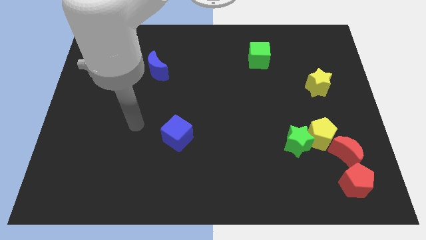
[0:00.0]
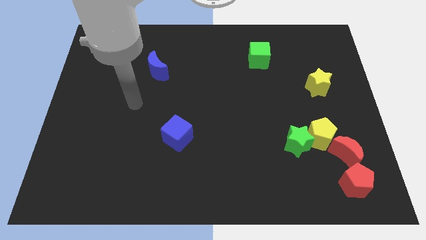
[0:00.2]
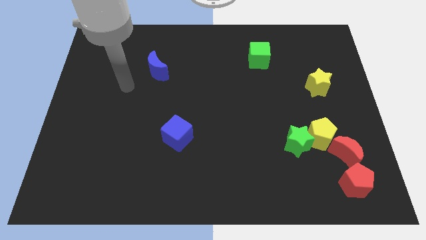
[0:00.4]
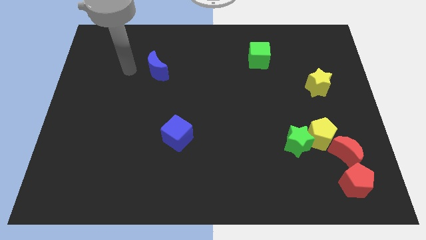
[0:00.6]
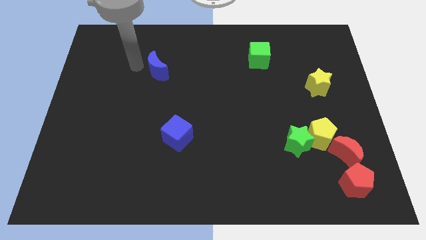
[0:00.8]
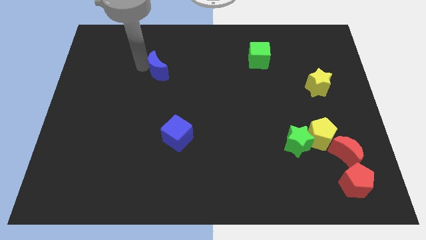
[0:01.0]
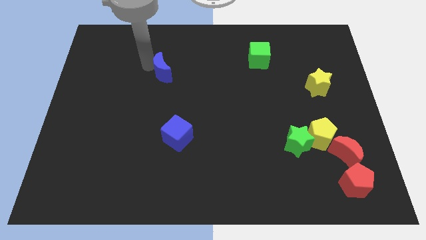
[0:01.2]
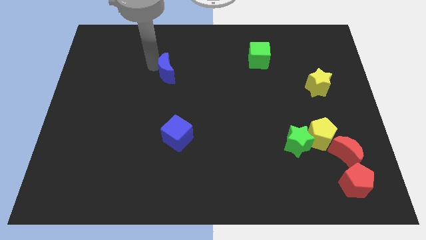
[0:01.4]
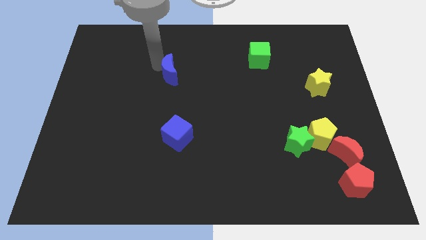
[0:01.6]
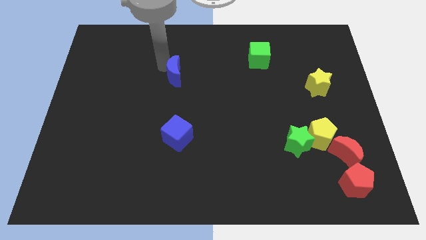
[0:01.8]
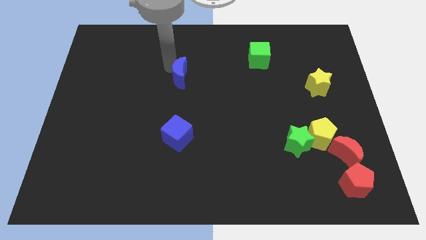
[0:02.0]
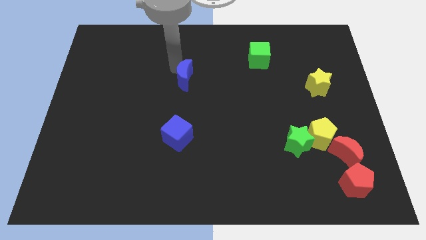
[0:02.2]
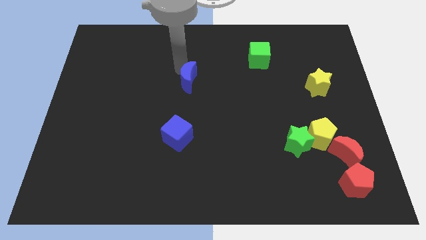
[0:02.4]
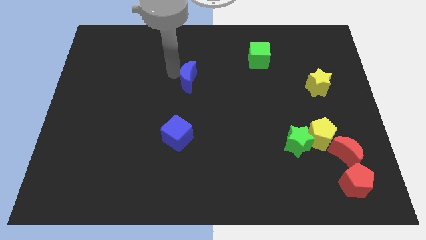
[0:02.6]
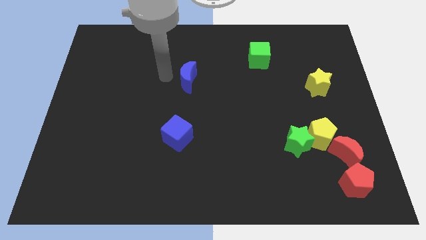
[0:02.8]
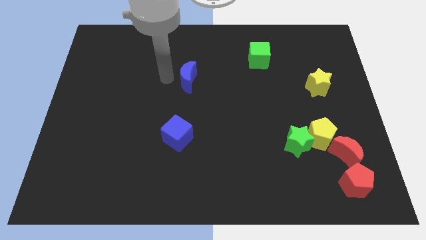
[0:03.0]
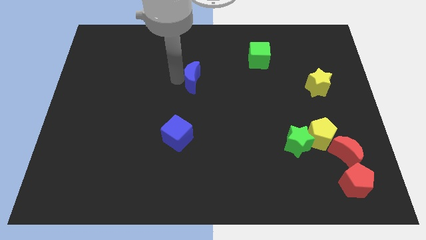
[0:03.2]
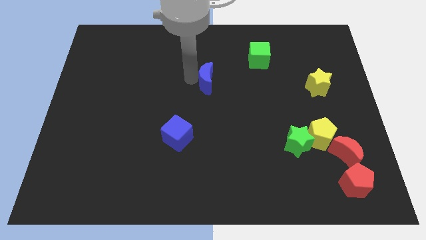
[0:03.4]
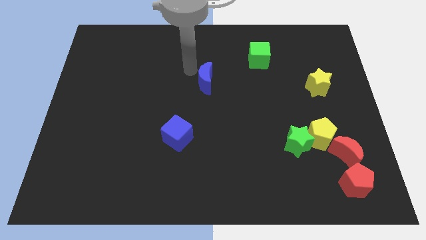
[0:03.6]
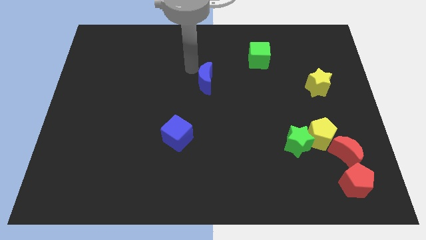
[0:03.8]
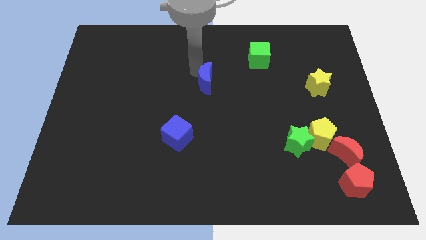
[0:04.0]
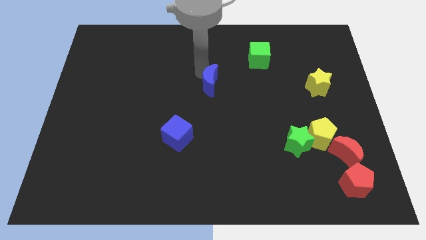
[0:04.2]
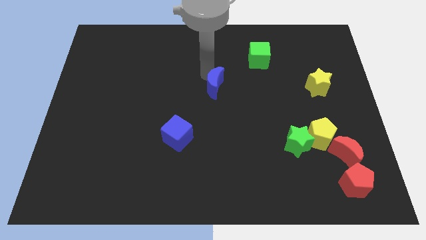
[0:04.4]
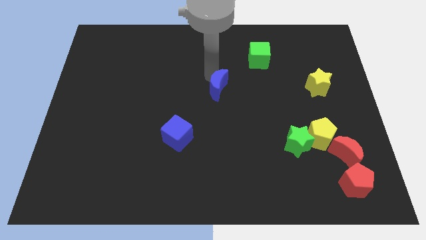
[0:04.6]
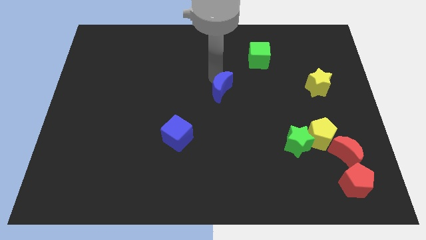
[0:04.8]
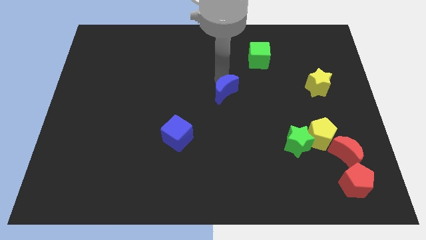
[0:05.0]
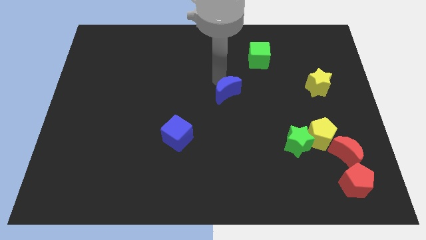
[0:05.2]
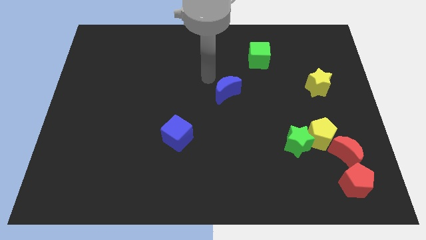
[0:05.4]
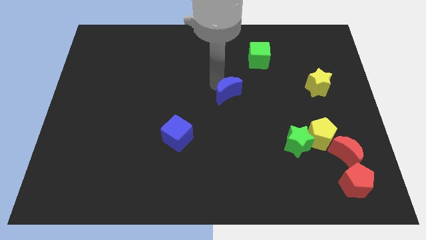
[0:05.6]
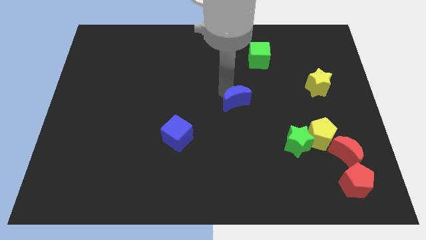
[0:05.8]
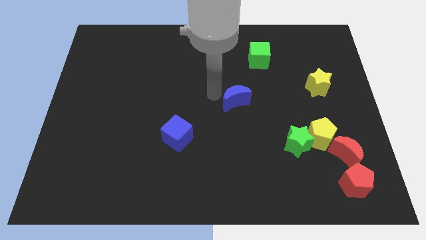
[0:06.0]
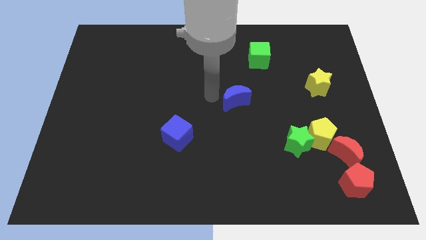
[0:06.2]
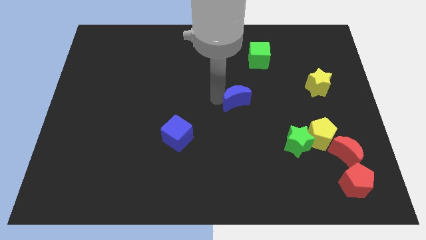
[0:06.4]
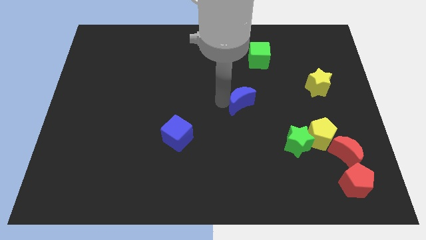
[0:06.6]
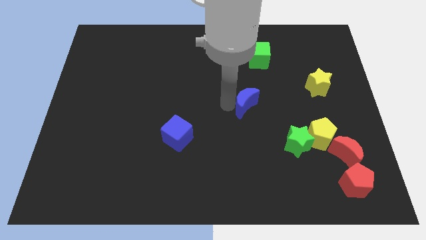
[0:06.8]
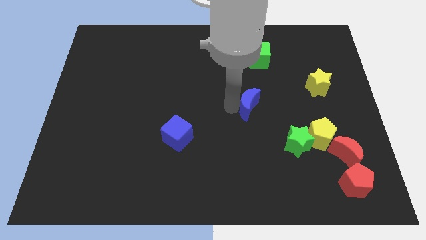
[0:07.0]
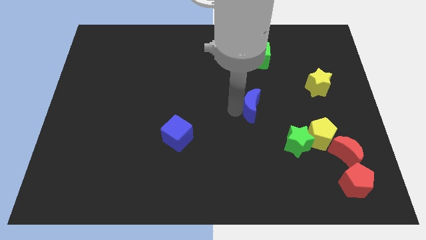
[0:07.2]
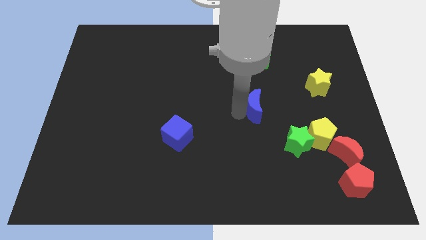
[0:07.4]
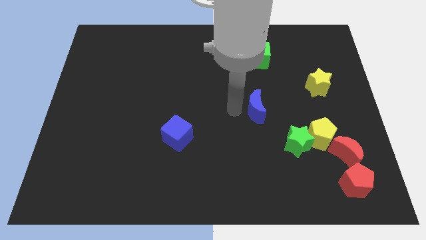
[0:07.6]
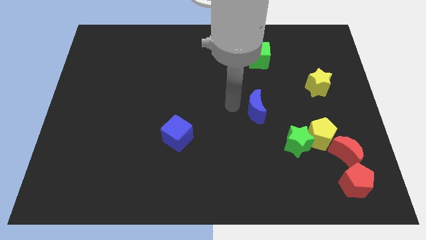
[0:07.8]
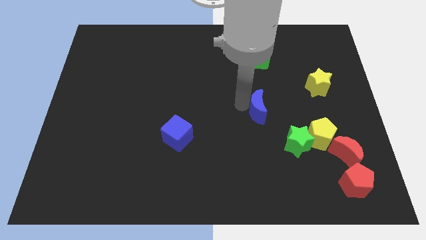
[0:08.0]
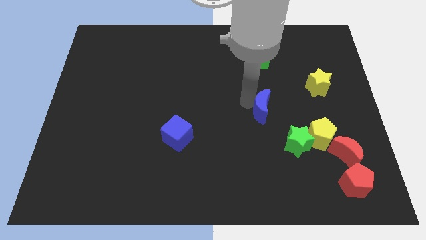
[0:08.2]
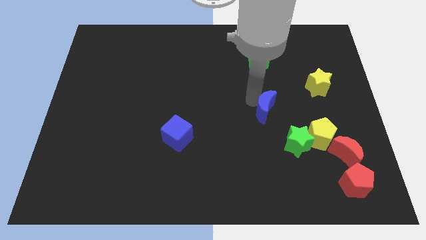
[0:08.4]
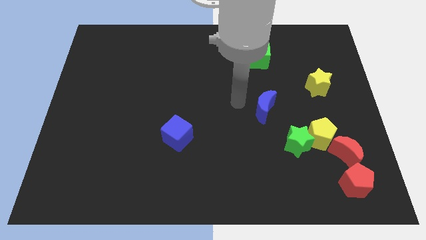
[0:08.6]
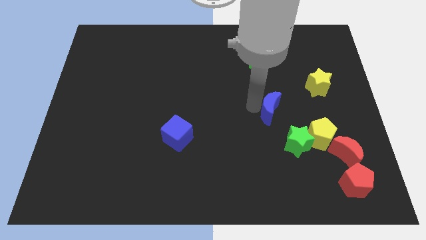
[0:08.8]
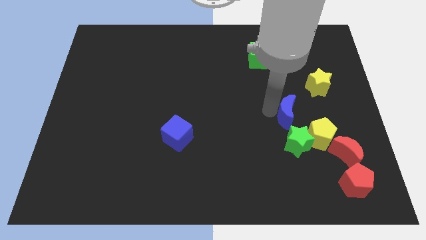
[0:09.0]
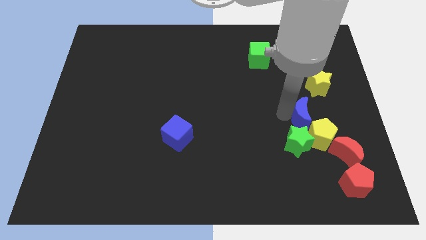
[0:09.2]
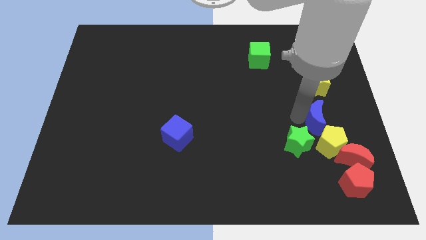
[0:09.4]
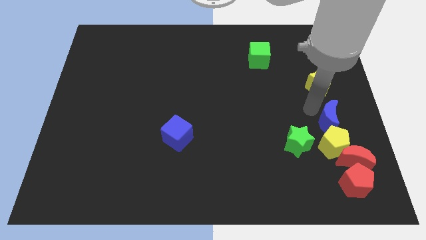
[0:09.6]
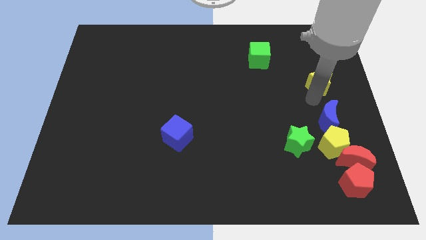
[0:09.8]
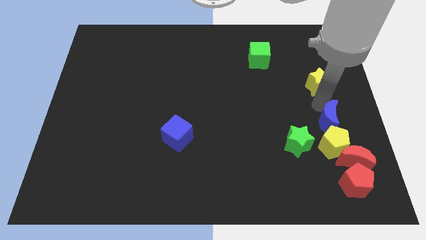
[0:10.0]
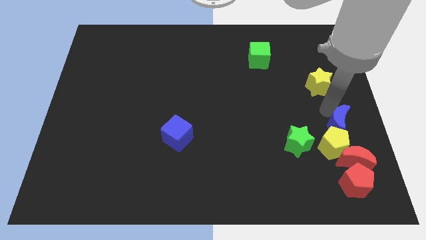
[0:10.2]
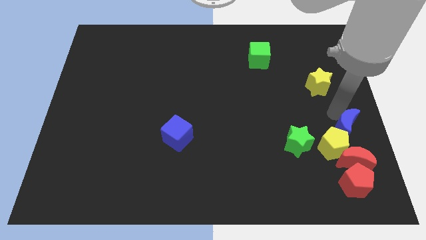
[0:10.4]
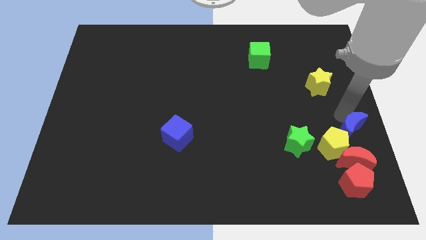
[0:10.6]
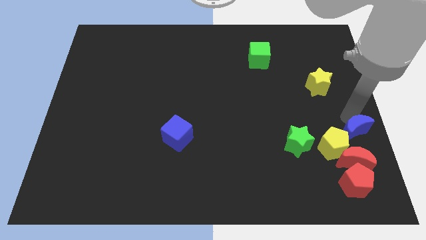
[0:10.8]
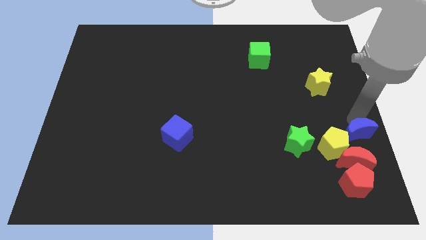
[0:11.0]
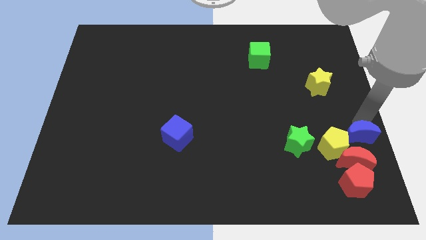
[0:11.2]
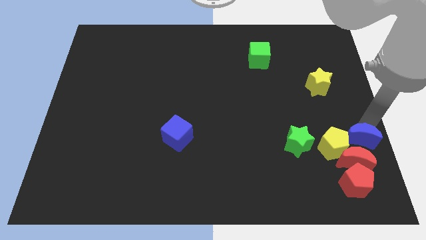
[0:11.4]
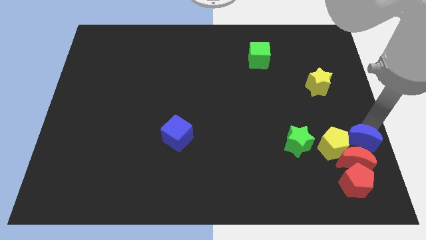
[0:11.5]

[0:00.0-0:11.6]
push the blue moon to the red moon

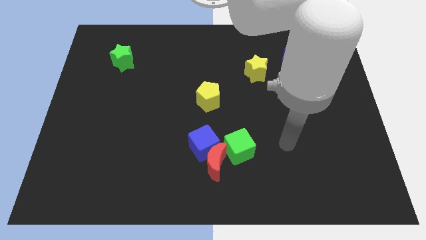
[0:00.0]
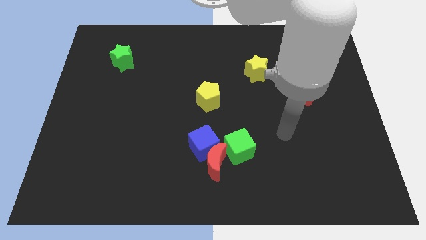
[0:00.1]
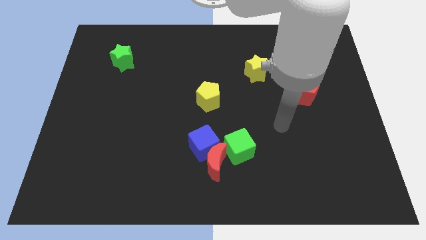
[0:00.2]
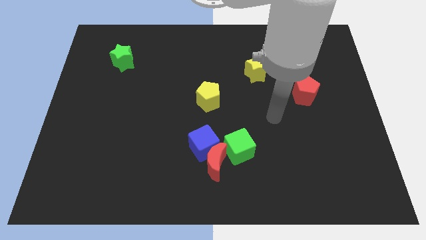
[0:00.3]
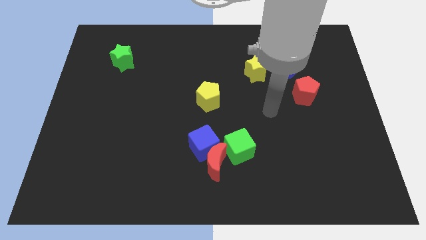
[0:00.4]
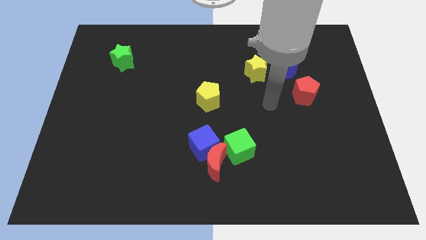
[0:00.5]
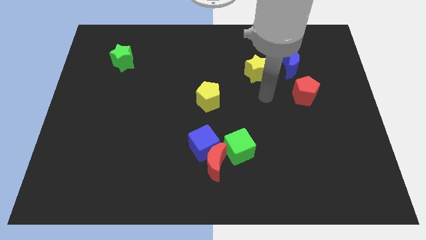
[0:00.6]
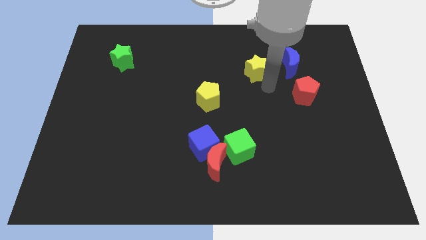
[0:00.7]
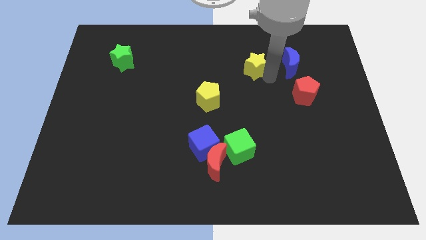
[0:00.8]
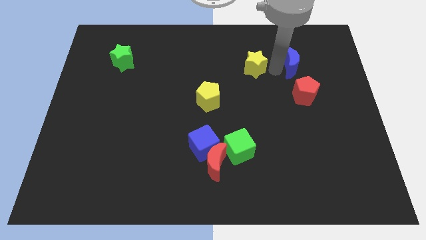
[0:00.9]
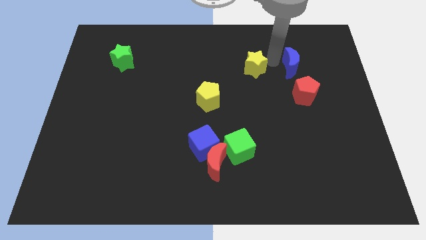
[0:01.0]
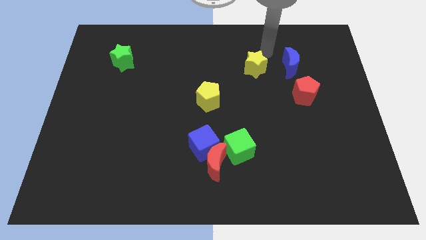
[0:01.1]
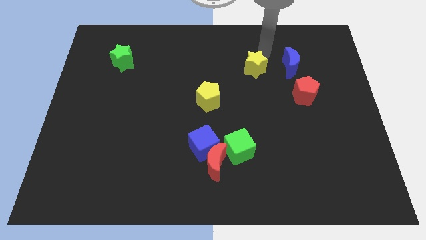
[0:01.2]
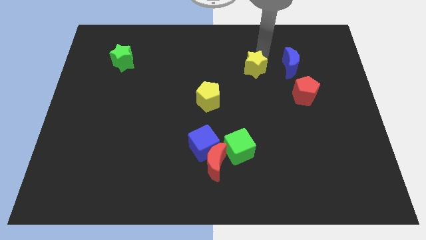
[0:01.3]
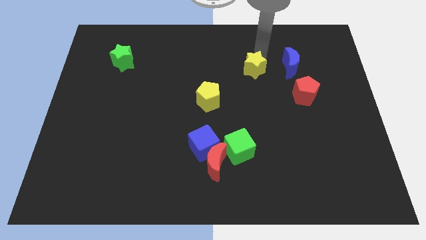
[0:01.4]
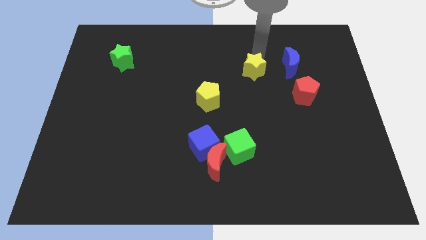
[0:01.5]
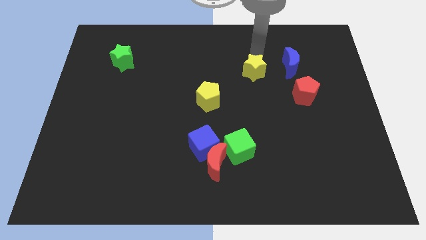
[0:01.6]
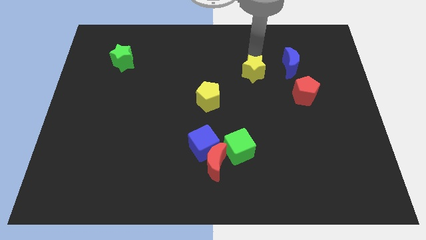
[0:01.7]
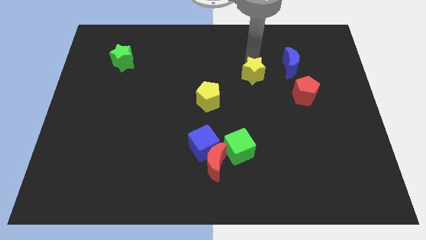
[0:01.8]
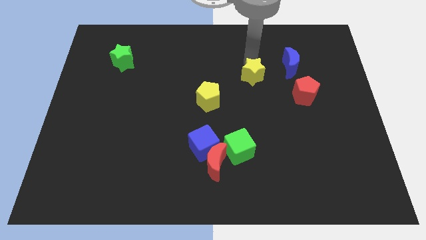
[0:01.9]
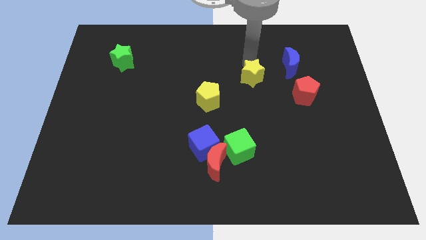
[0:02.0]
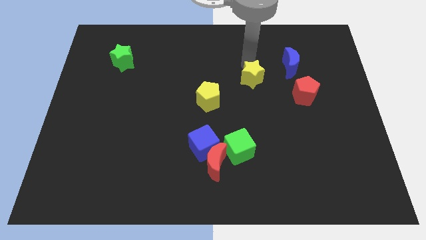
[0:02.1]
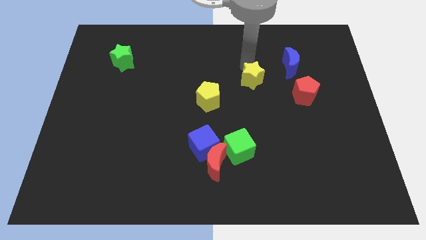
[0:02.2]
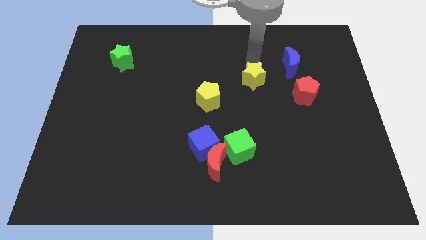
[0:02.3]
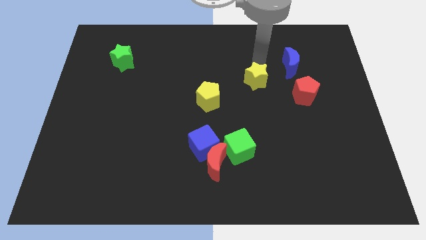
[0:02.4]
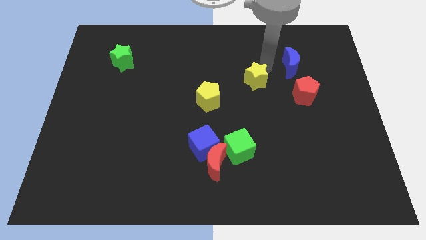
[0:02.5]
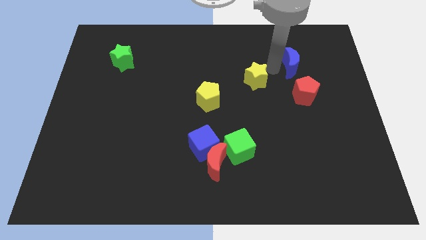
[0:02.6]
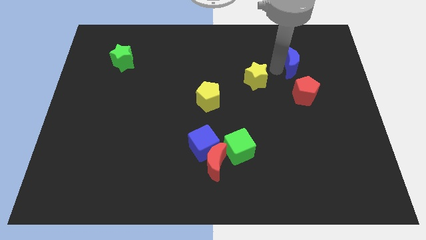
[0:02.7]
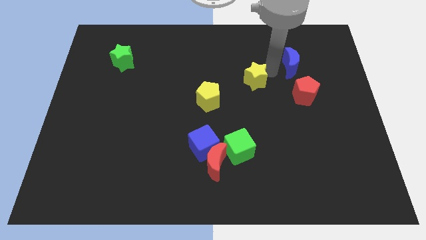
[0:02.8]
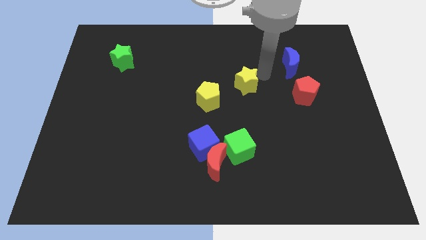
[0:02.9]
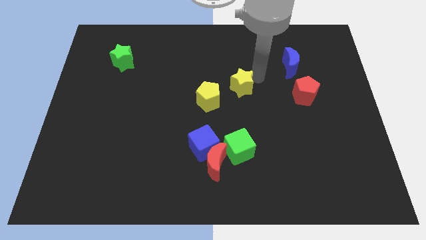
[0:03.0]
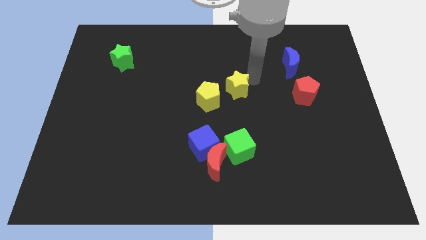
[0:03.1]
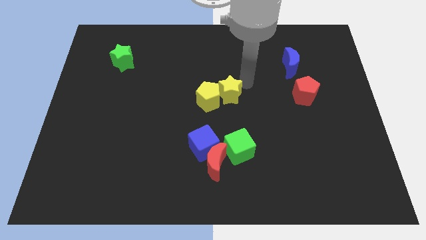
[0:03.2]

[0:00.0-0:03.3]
put the yellow star towards the yellow pentagon
